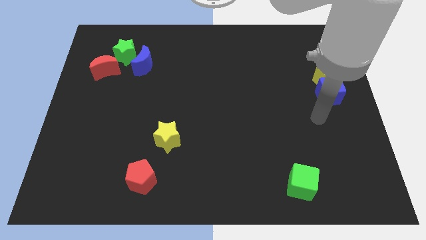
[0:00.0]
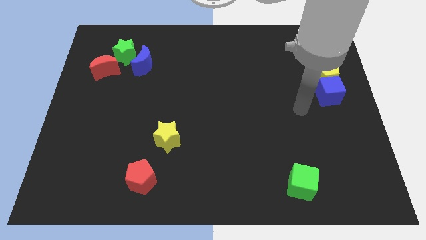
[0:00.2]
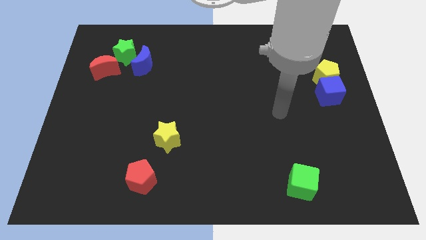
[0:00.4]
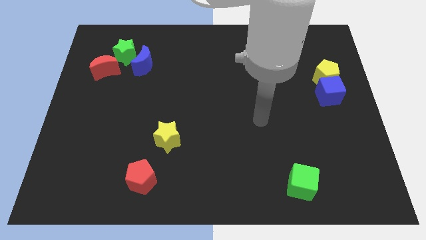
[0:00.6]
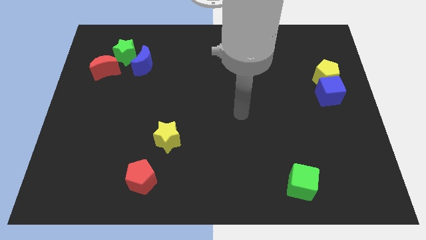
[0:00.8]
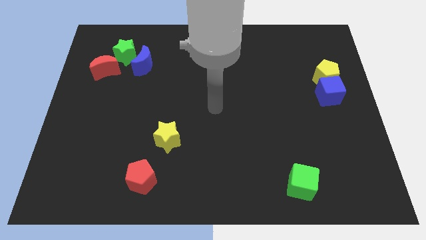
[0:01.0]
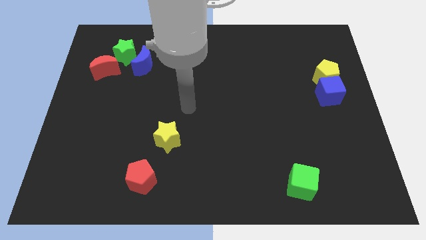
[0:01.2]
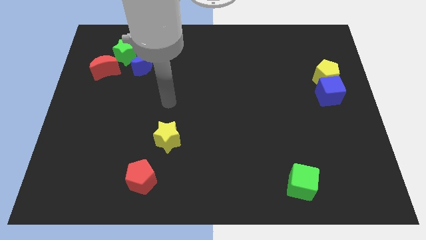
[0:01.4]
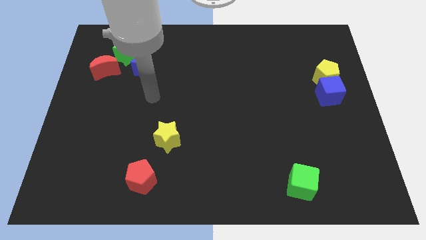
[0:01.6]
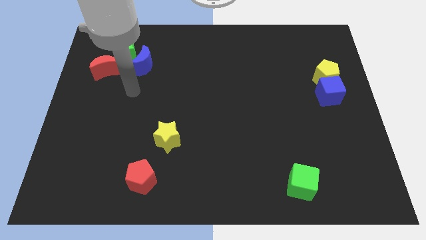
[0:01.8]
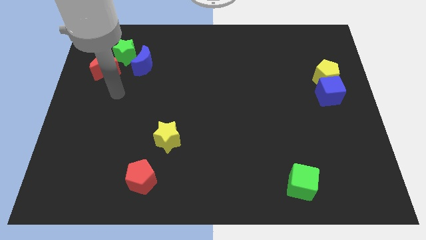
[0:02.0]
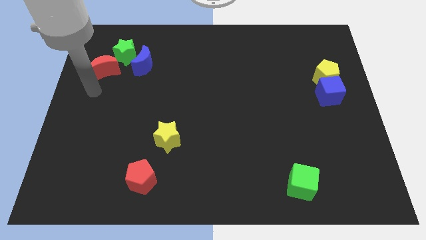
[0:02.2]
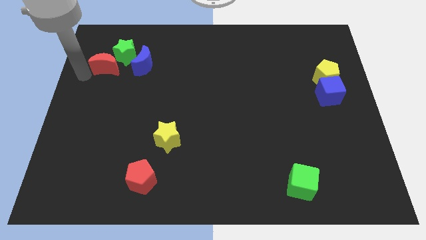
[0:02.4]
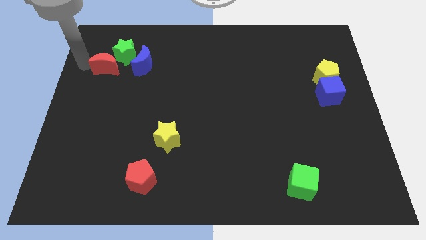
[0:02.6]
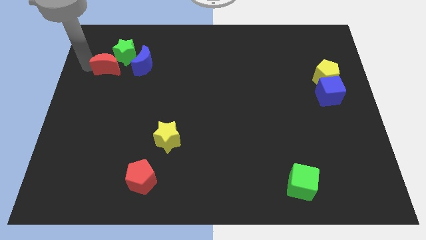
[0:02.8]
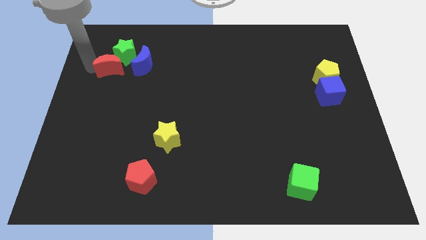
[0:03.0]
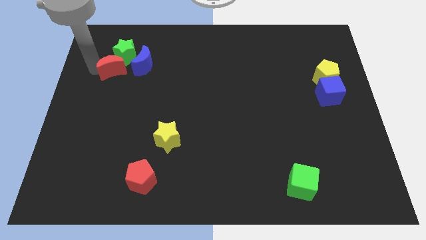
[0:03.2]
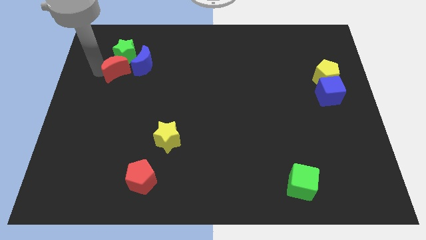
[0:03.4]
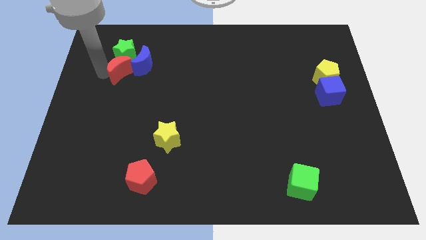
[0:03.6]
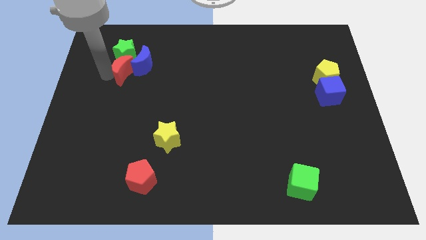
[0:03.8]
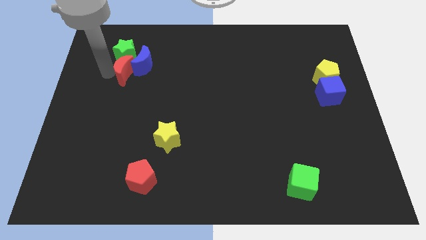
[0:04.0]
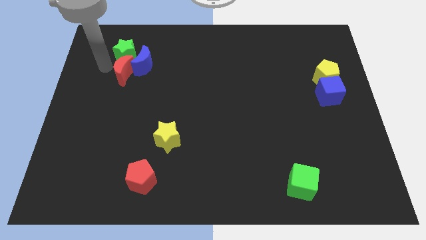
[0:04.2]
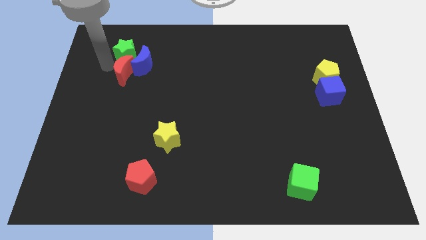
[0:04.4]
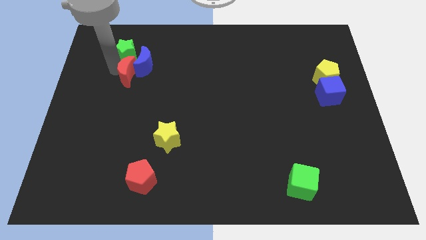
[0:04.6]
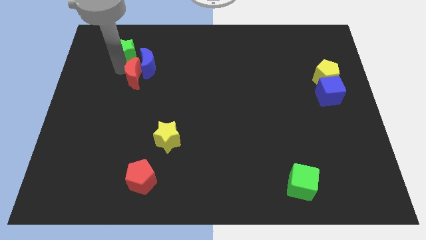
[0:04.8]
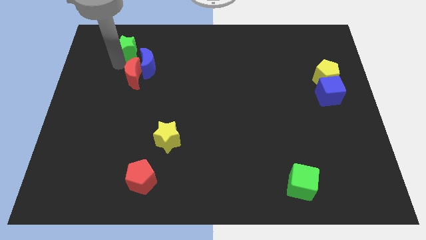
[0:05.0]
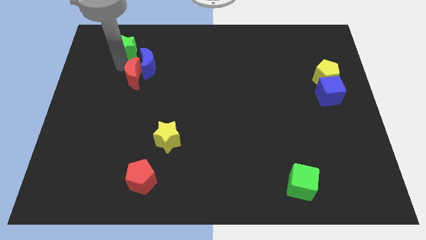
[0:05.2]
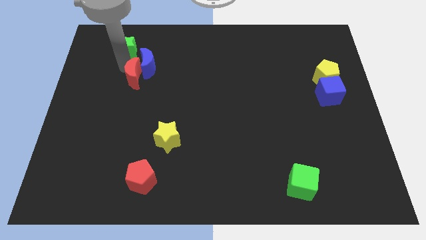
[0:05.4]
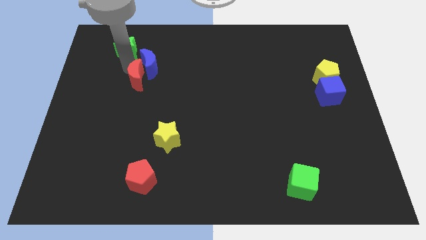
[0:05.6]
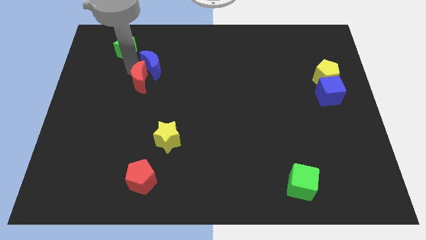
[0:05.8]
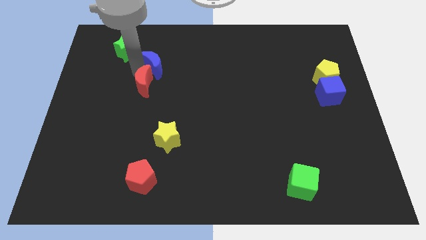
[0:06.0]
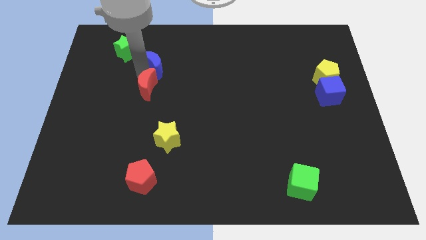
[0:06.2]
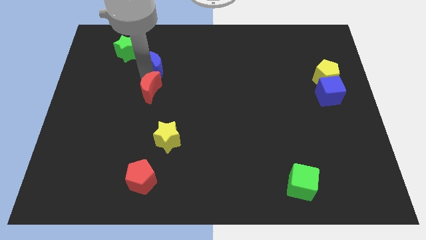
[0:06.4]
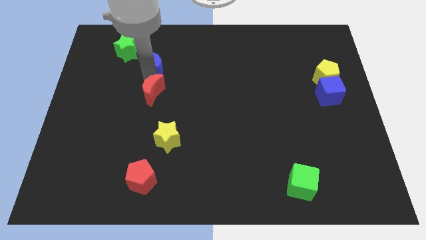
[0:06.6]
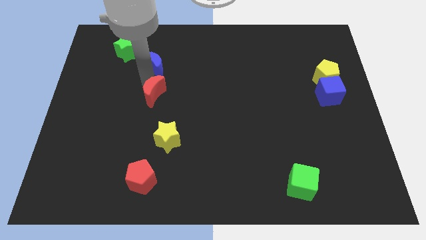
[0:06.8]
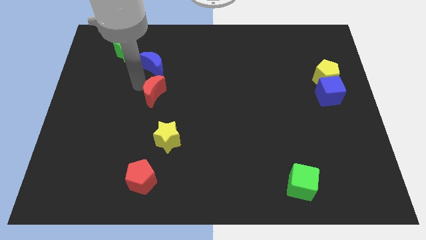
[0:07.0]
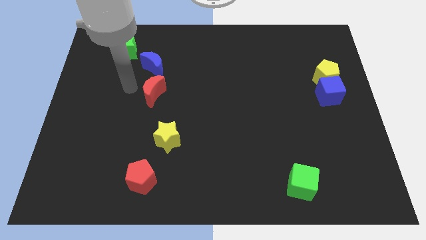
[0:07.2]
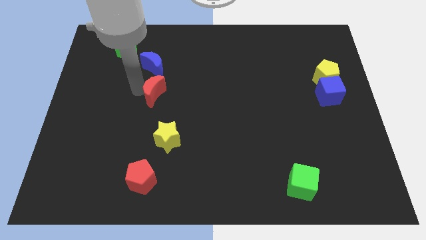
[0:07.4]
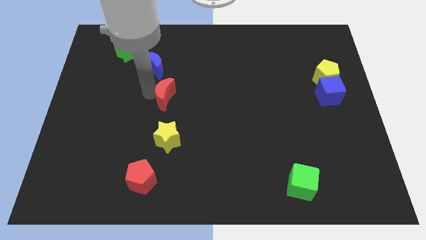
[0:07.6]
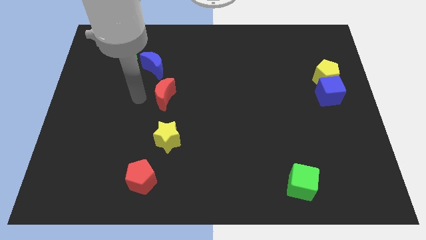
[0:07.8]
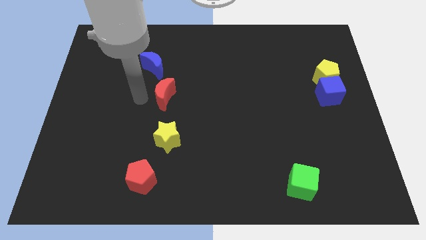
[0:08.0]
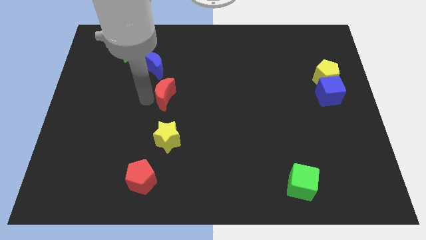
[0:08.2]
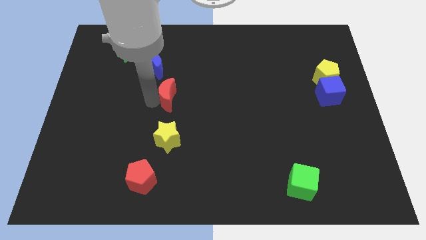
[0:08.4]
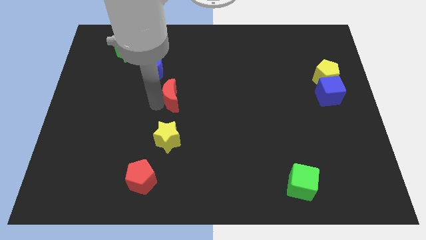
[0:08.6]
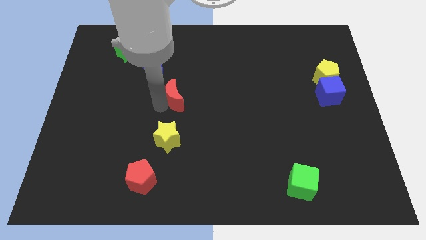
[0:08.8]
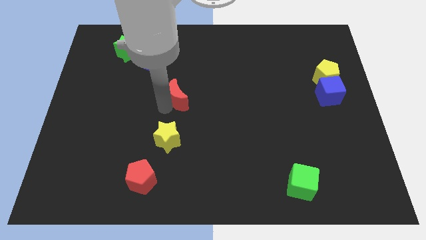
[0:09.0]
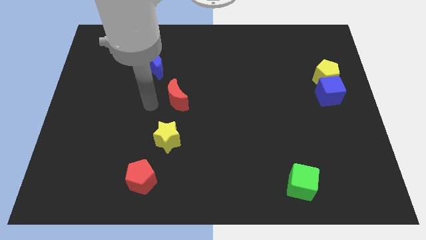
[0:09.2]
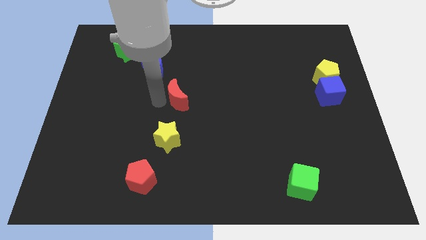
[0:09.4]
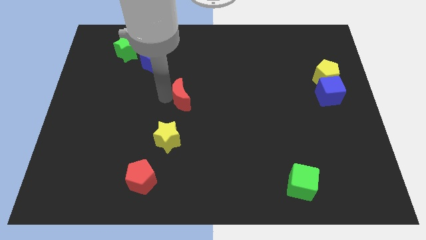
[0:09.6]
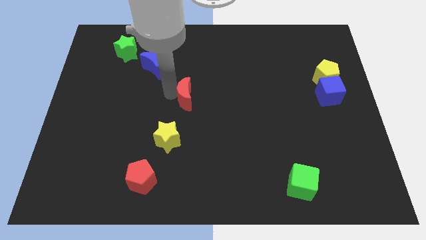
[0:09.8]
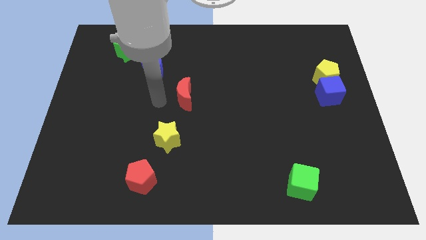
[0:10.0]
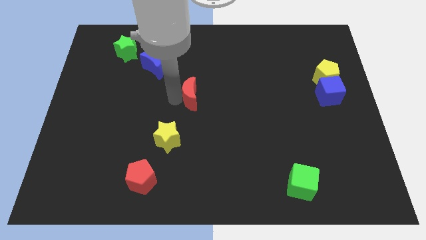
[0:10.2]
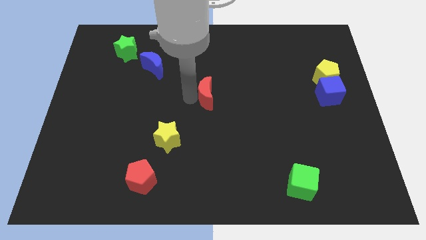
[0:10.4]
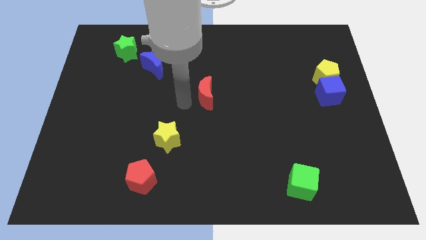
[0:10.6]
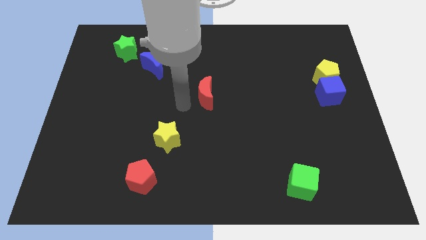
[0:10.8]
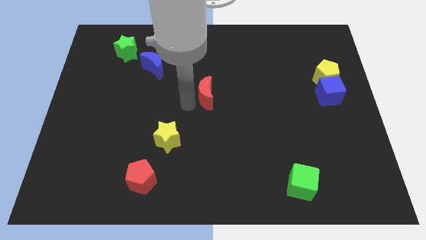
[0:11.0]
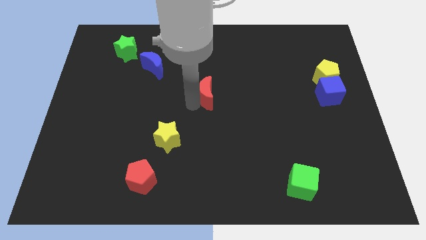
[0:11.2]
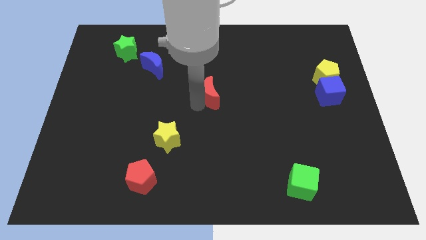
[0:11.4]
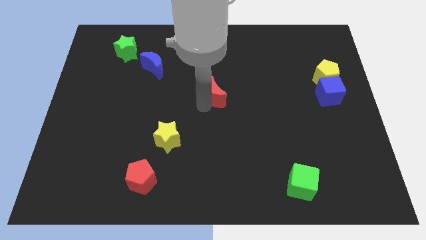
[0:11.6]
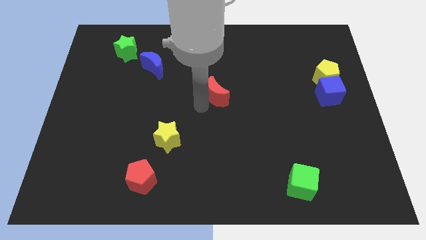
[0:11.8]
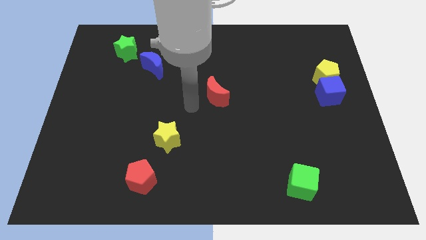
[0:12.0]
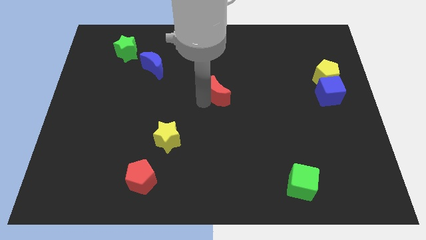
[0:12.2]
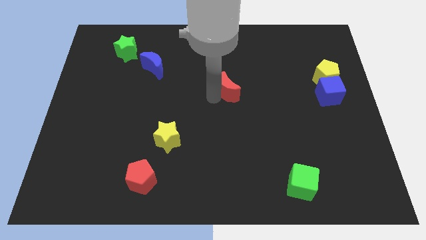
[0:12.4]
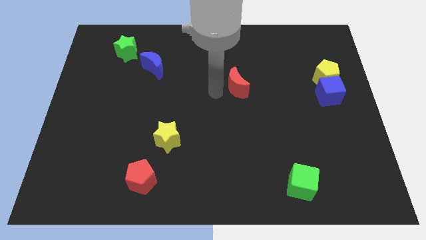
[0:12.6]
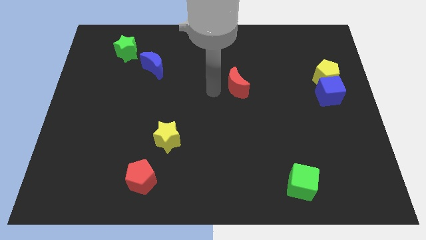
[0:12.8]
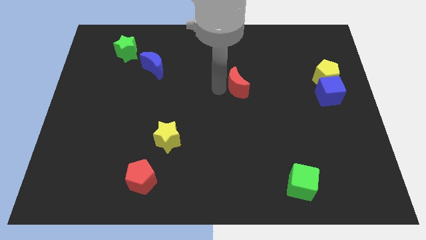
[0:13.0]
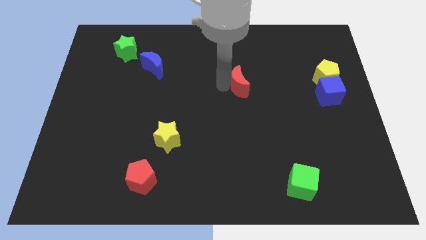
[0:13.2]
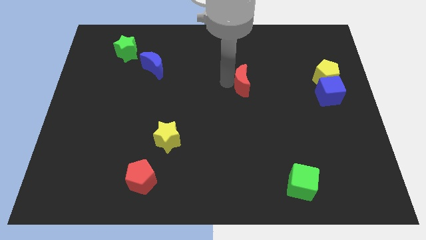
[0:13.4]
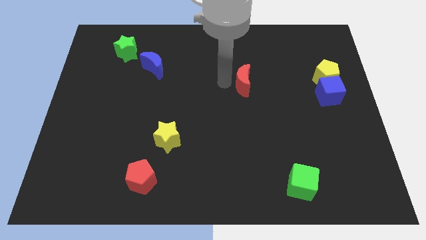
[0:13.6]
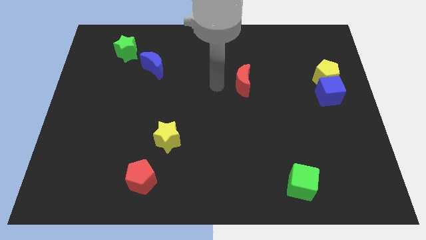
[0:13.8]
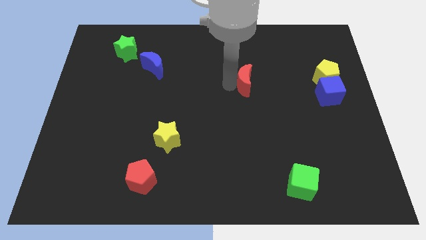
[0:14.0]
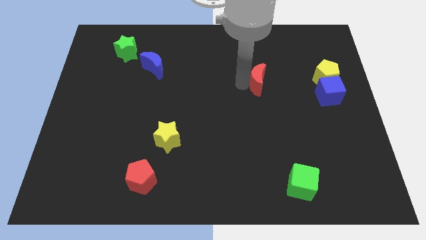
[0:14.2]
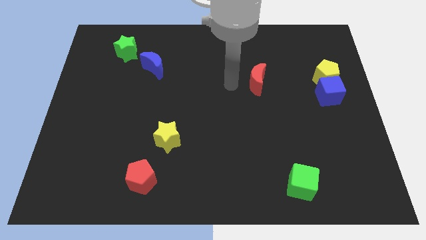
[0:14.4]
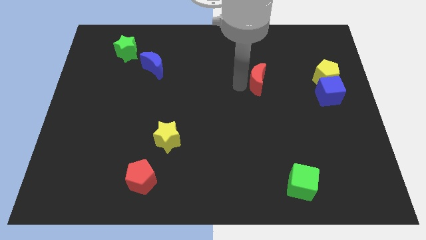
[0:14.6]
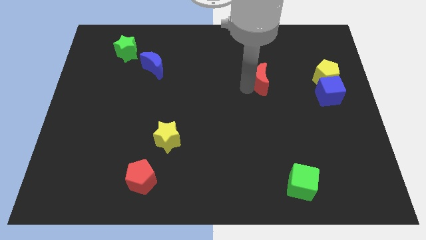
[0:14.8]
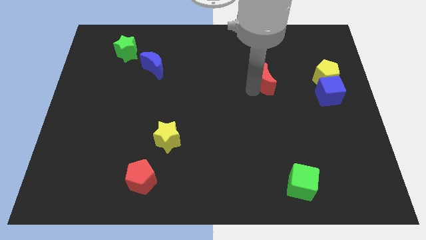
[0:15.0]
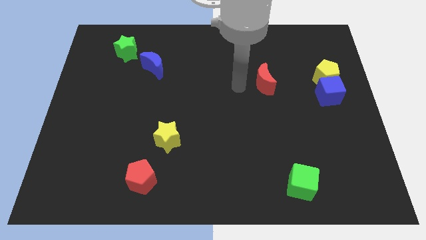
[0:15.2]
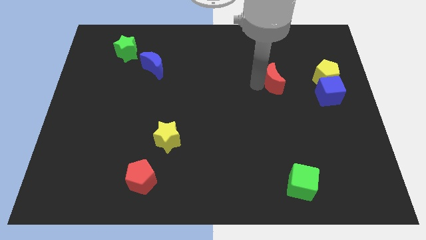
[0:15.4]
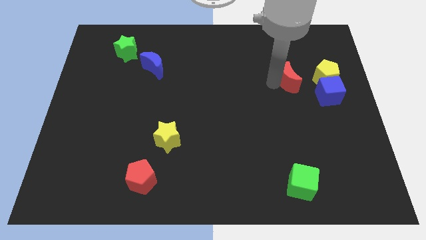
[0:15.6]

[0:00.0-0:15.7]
push the red moon to the top left side of the blue cube

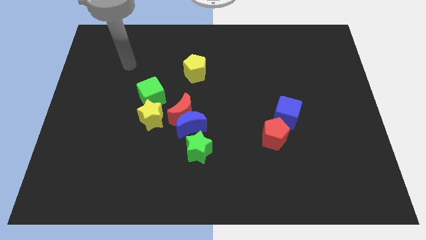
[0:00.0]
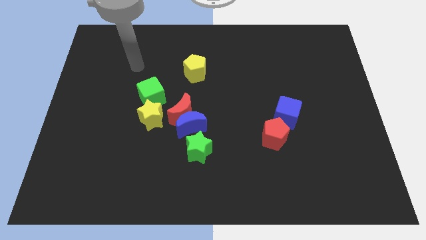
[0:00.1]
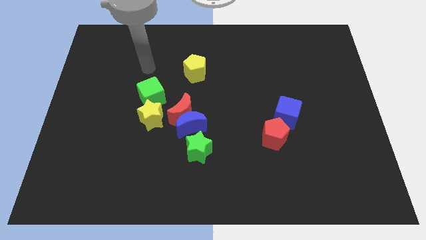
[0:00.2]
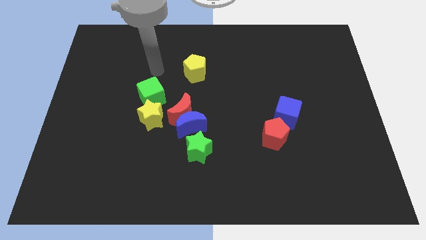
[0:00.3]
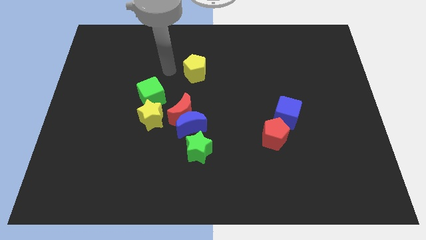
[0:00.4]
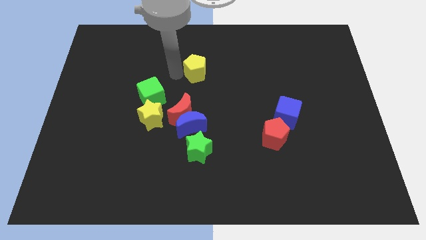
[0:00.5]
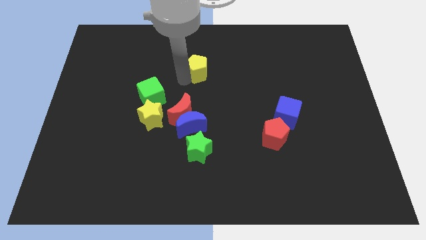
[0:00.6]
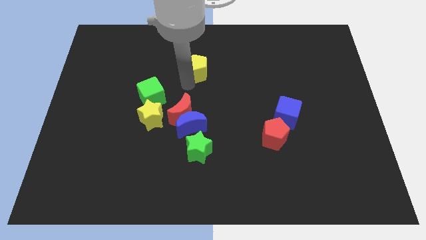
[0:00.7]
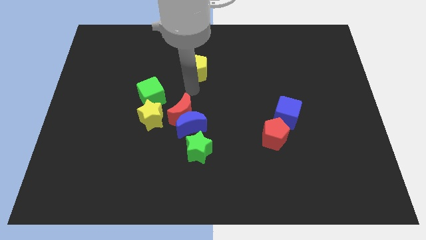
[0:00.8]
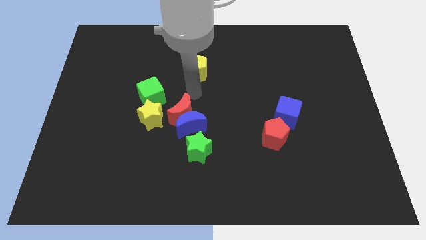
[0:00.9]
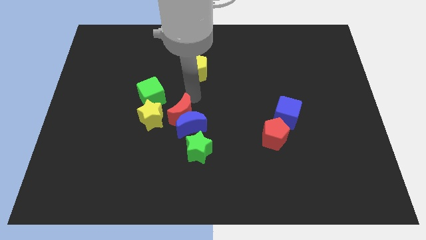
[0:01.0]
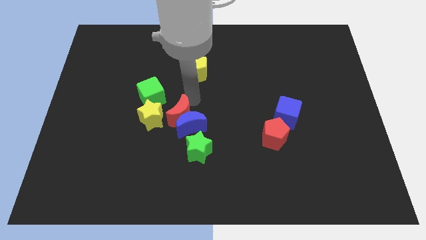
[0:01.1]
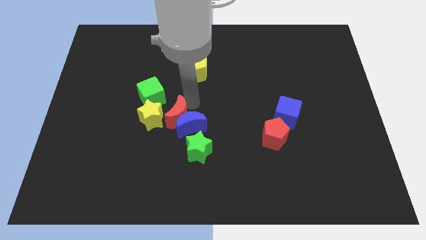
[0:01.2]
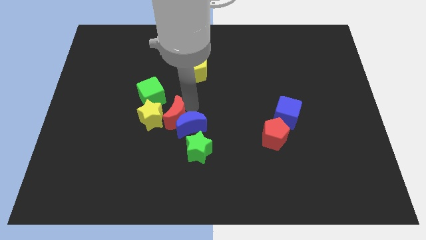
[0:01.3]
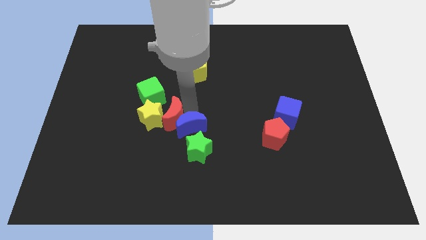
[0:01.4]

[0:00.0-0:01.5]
slide the red moon to the bottom left side of the blue moon
